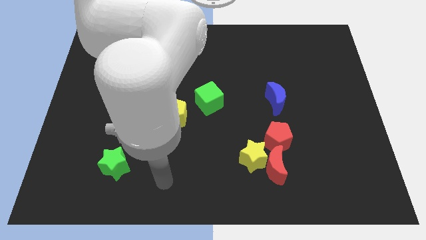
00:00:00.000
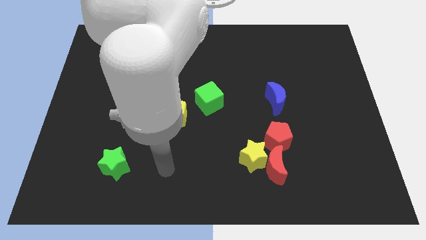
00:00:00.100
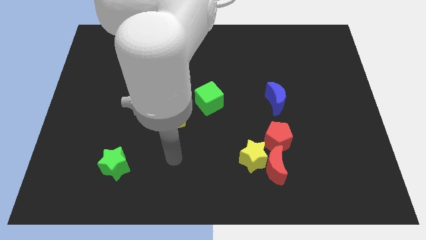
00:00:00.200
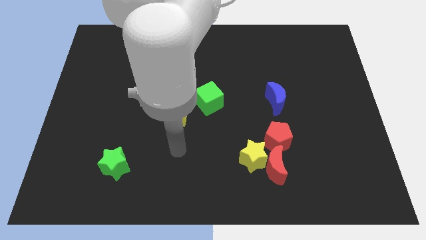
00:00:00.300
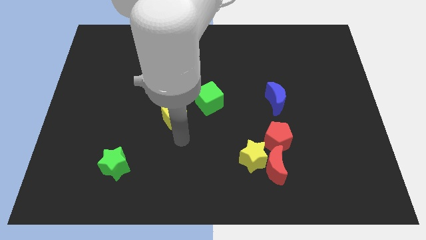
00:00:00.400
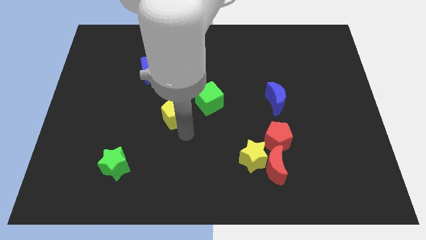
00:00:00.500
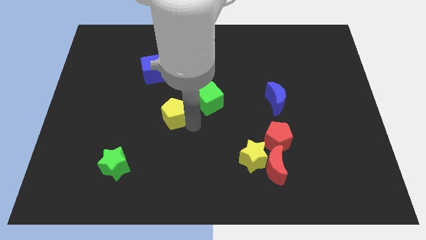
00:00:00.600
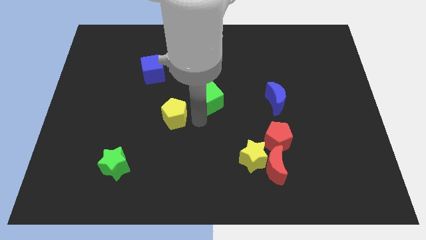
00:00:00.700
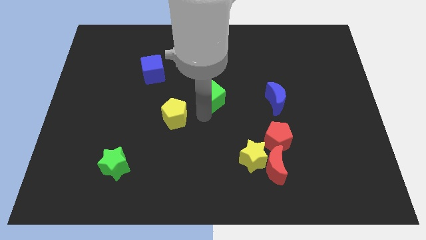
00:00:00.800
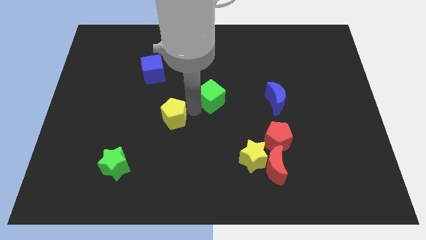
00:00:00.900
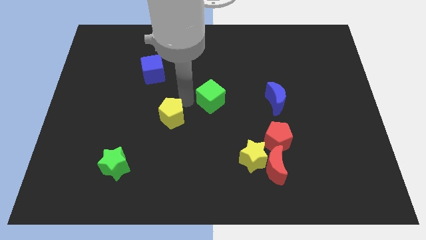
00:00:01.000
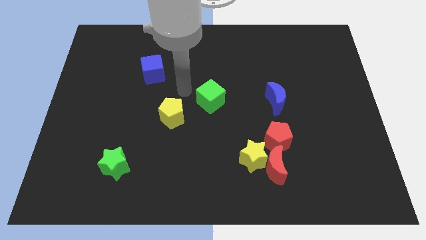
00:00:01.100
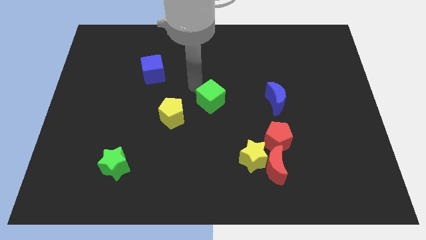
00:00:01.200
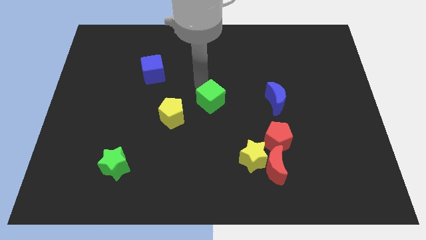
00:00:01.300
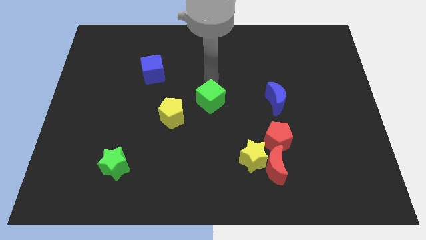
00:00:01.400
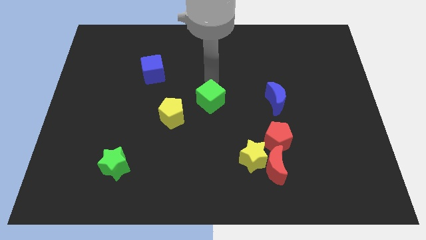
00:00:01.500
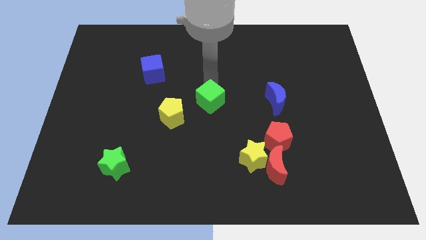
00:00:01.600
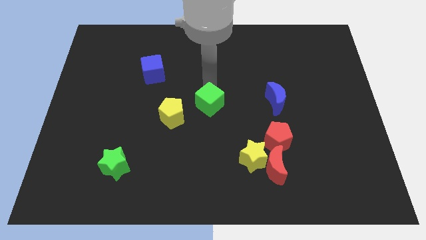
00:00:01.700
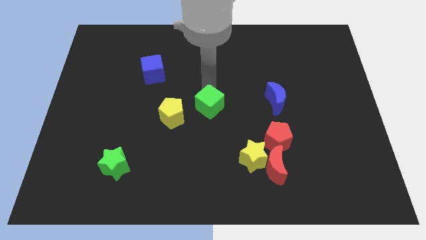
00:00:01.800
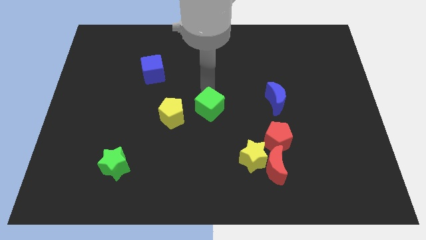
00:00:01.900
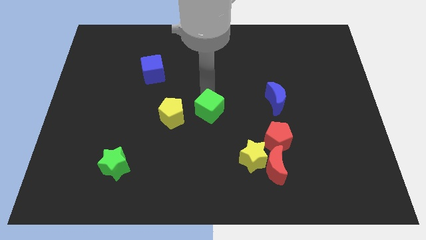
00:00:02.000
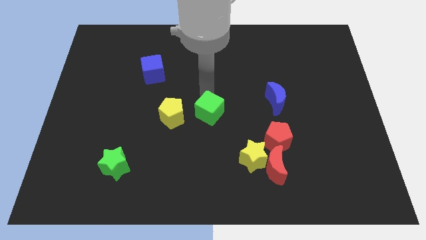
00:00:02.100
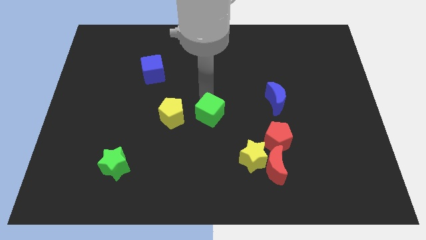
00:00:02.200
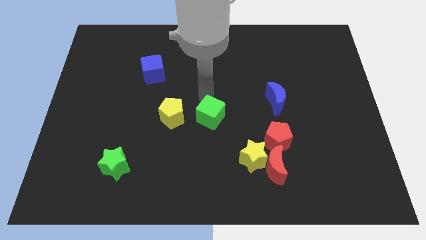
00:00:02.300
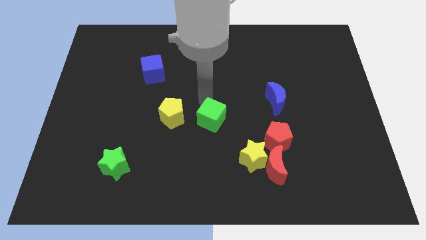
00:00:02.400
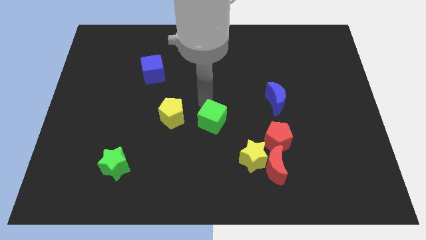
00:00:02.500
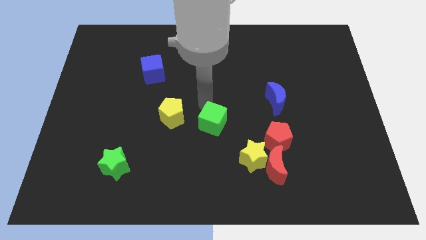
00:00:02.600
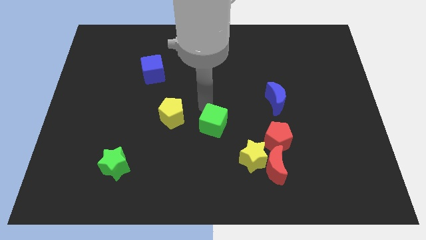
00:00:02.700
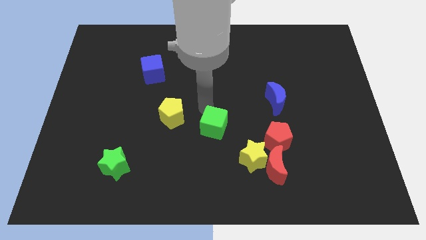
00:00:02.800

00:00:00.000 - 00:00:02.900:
move the green cube a little downwards

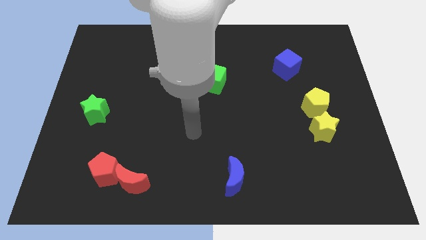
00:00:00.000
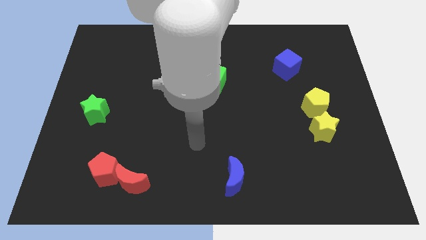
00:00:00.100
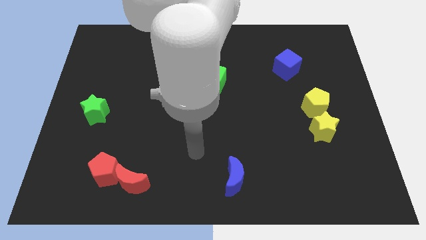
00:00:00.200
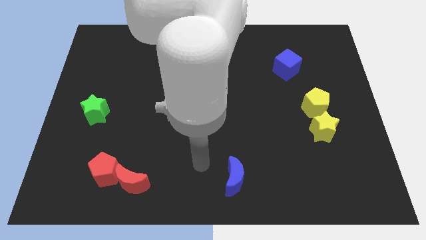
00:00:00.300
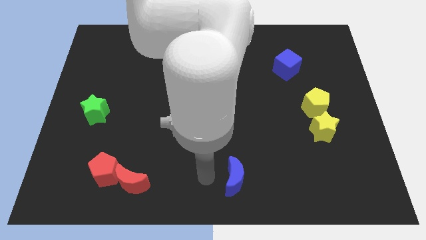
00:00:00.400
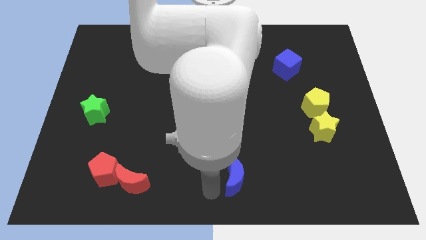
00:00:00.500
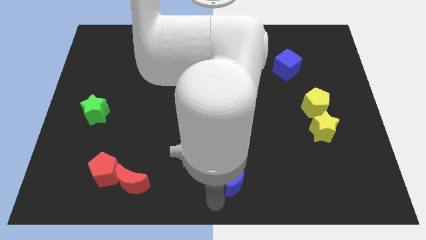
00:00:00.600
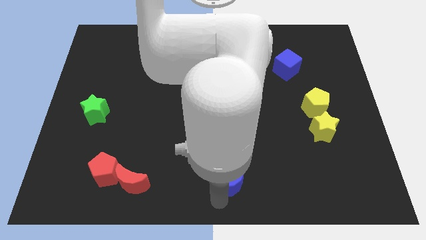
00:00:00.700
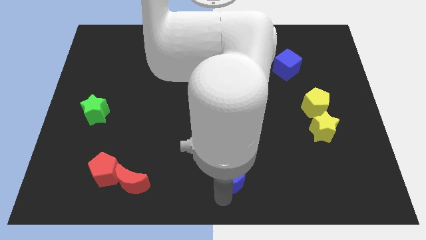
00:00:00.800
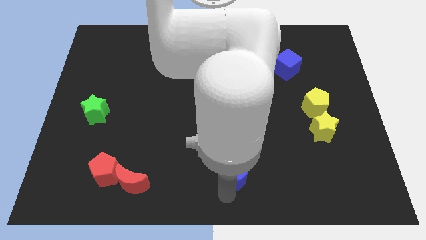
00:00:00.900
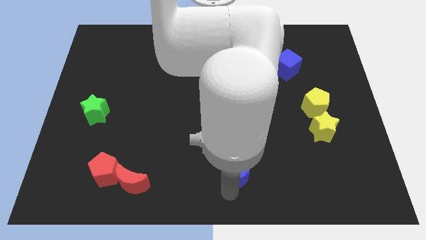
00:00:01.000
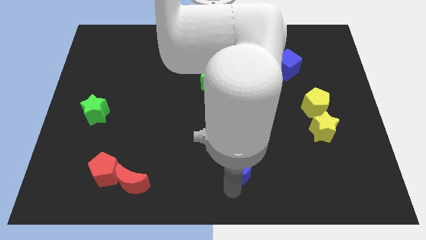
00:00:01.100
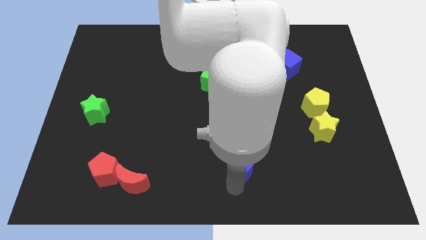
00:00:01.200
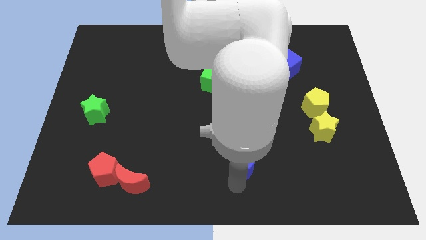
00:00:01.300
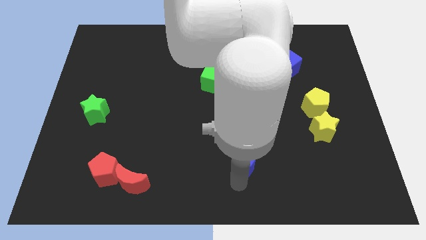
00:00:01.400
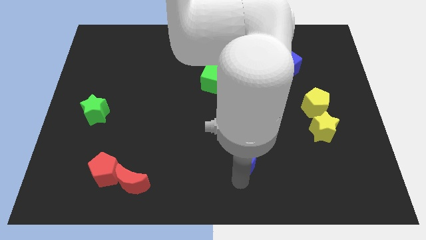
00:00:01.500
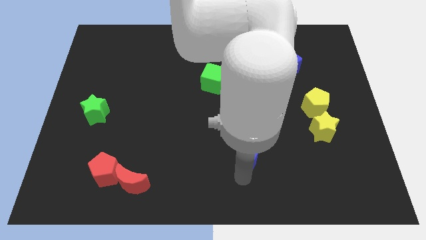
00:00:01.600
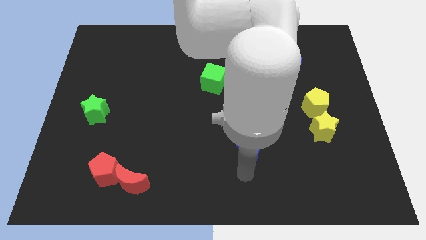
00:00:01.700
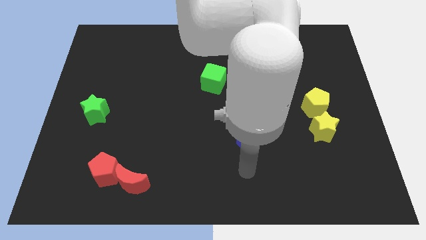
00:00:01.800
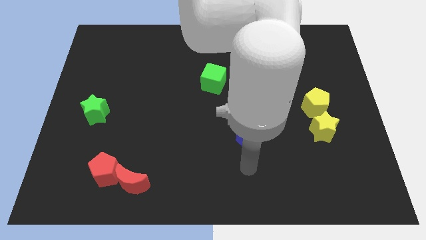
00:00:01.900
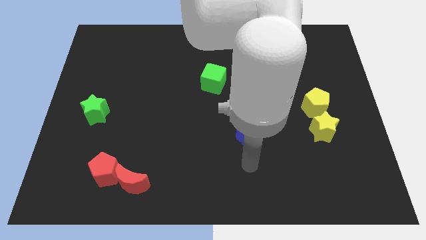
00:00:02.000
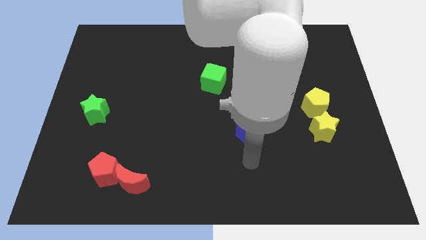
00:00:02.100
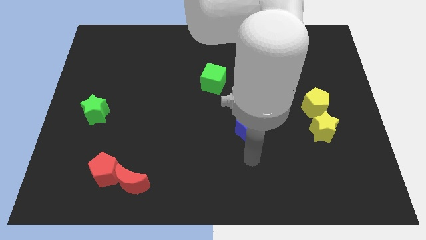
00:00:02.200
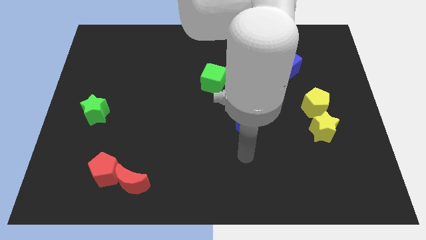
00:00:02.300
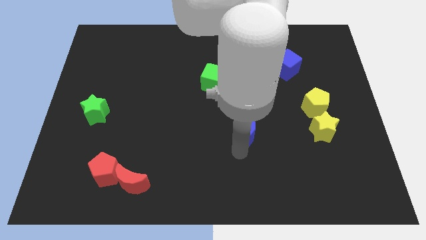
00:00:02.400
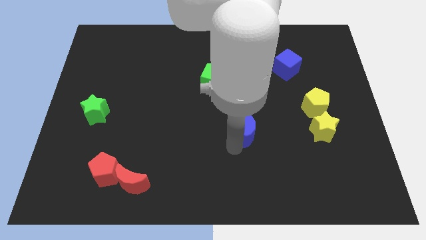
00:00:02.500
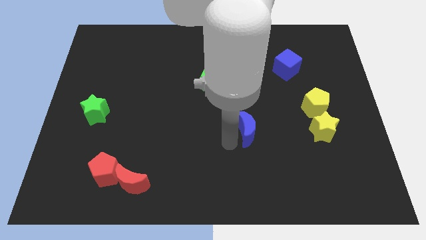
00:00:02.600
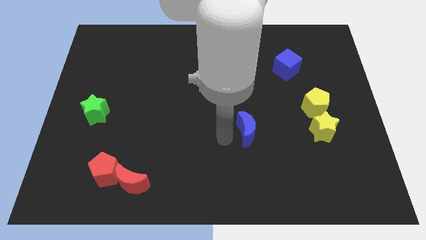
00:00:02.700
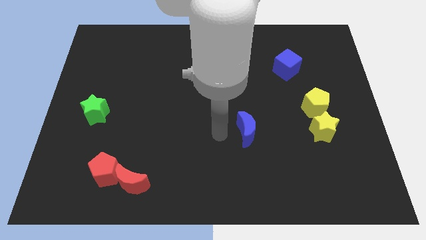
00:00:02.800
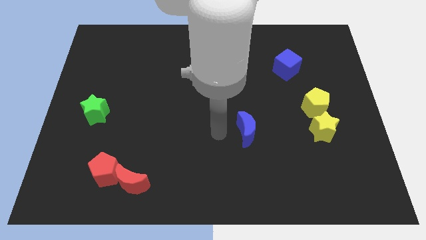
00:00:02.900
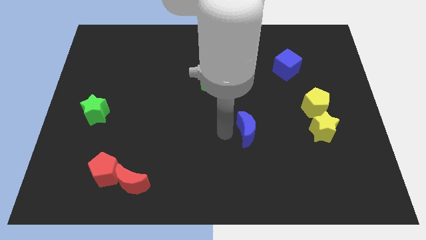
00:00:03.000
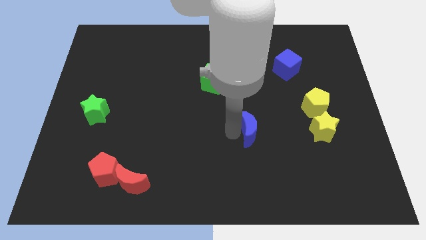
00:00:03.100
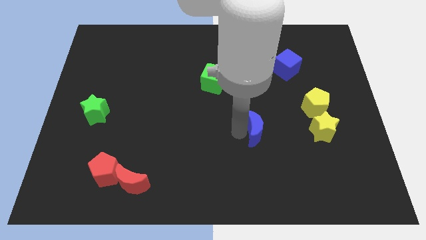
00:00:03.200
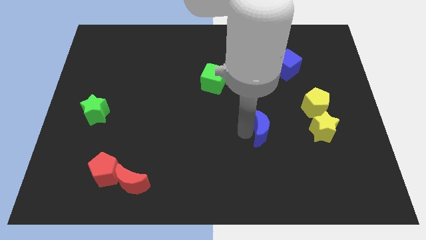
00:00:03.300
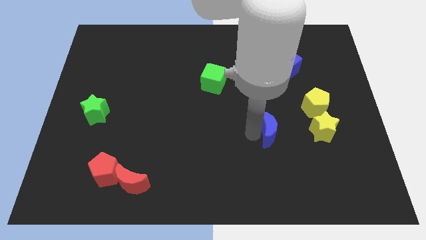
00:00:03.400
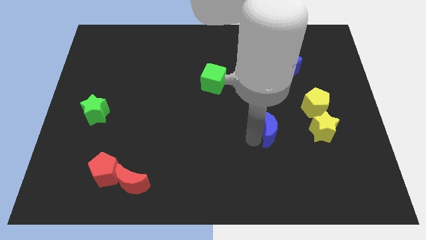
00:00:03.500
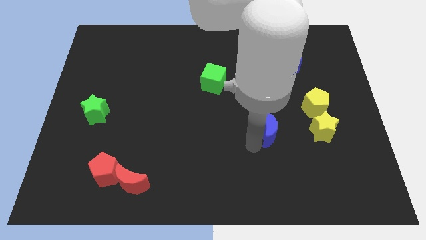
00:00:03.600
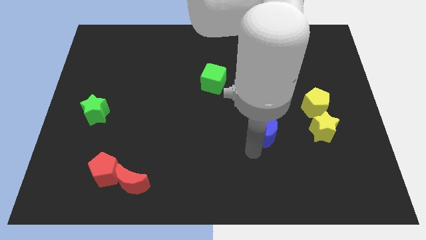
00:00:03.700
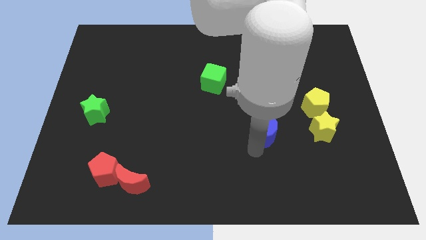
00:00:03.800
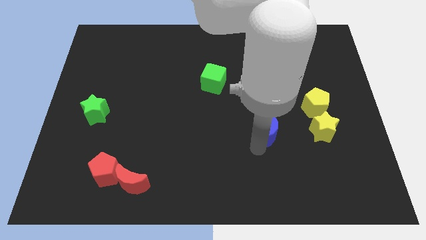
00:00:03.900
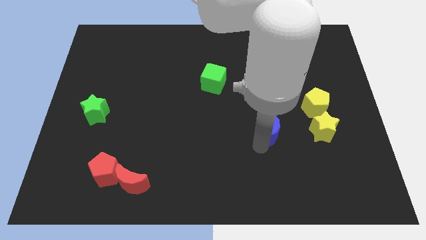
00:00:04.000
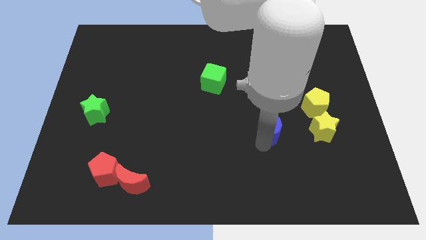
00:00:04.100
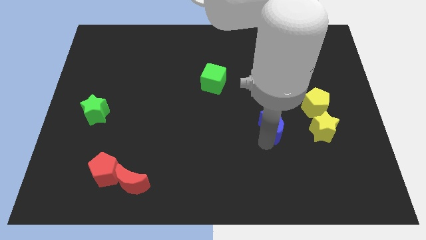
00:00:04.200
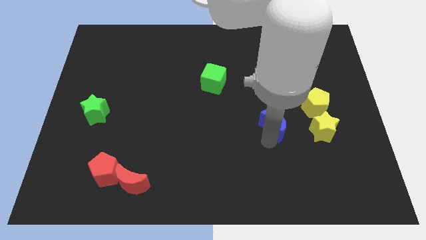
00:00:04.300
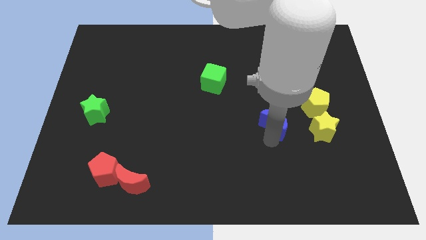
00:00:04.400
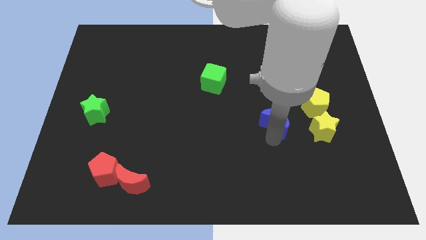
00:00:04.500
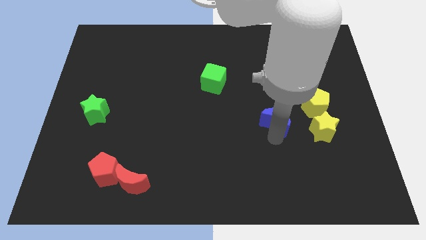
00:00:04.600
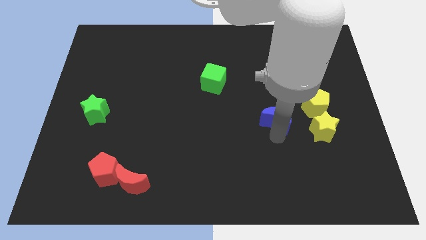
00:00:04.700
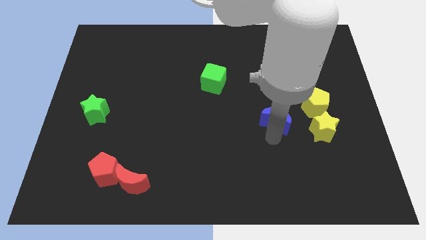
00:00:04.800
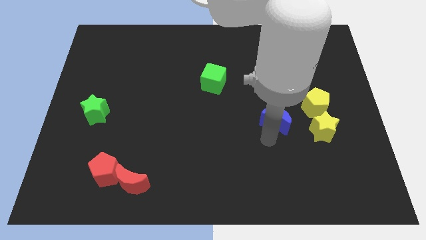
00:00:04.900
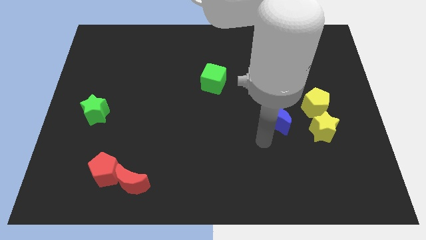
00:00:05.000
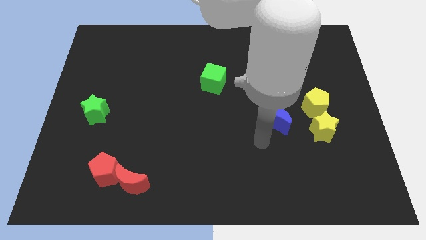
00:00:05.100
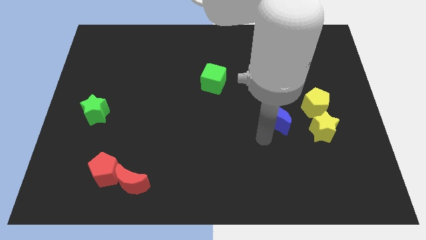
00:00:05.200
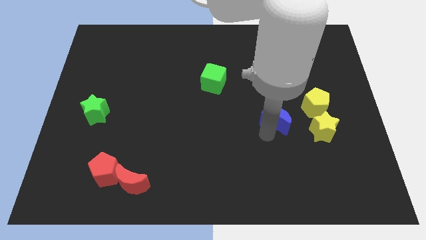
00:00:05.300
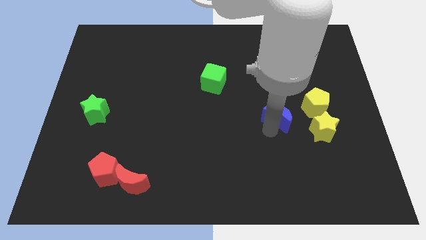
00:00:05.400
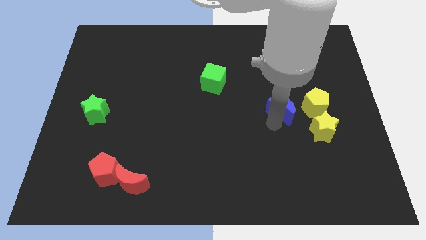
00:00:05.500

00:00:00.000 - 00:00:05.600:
move the blue moon up and right diagonally
